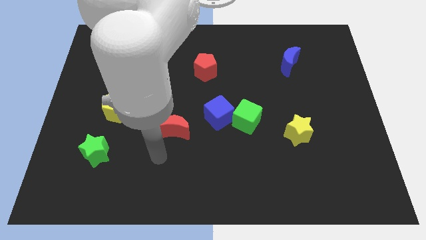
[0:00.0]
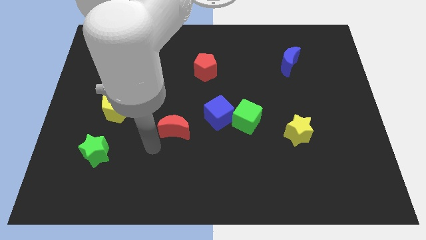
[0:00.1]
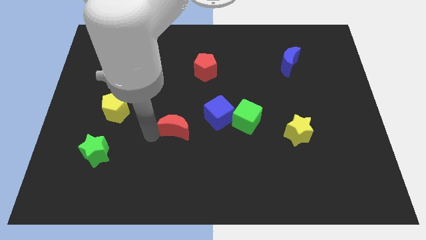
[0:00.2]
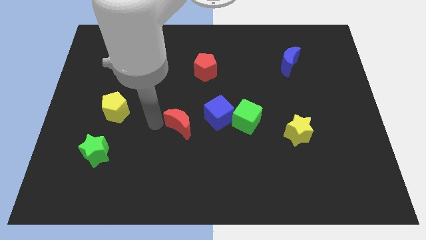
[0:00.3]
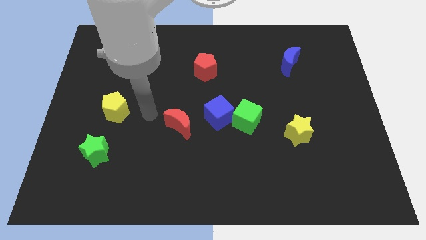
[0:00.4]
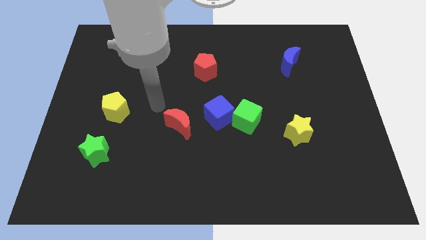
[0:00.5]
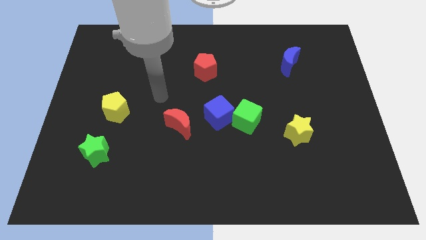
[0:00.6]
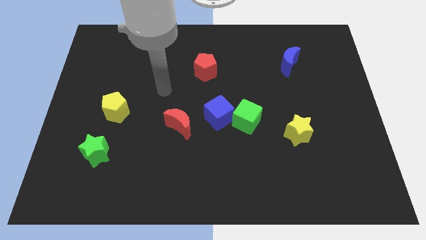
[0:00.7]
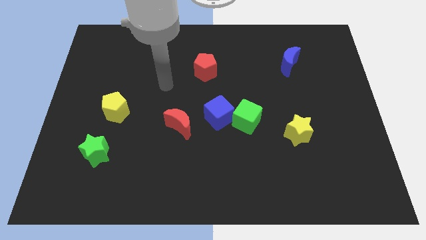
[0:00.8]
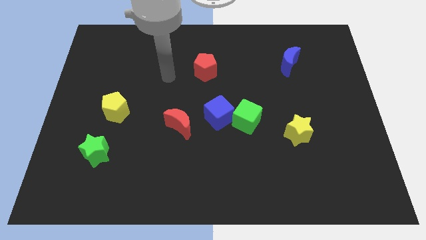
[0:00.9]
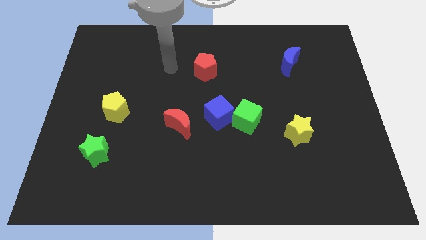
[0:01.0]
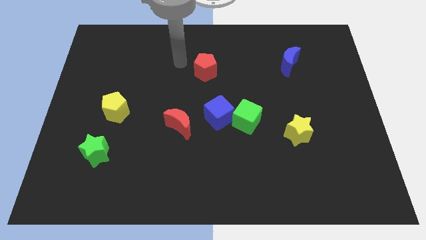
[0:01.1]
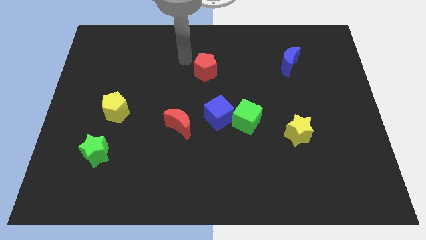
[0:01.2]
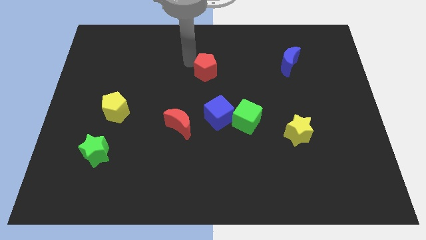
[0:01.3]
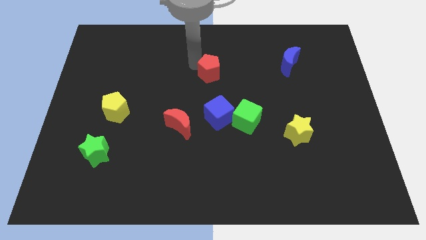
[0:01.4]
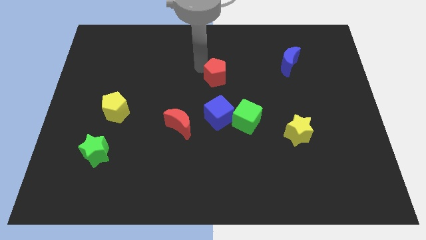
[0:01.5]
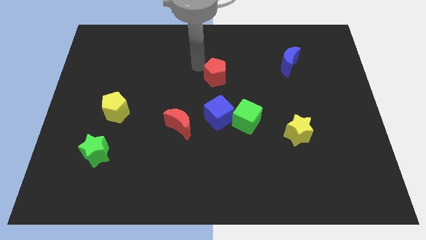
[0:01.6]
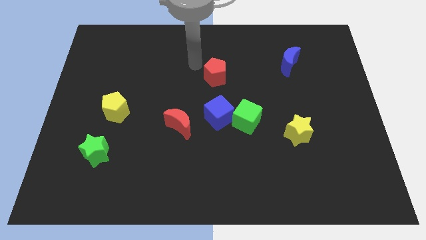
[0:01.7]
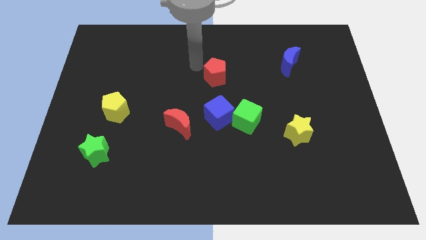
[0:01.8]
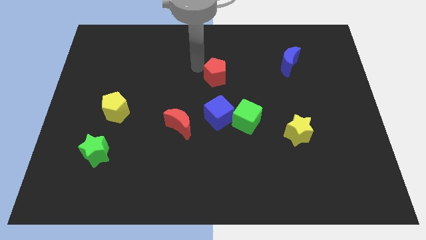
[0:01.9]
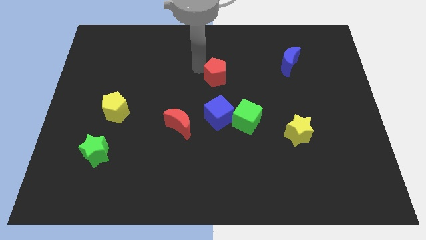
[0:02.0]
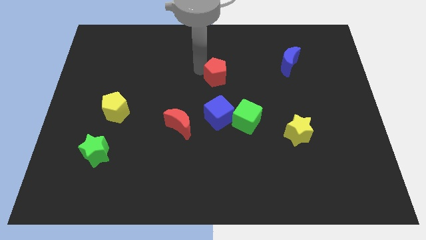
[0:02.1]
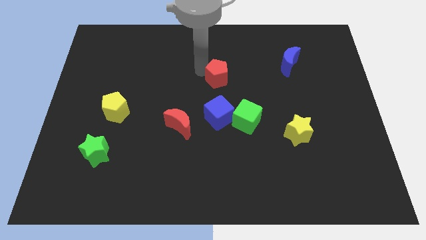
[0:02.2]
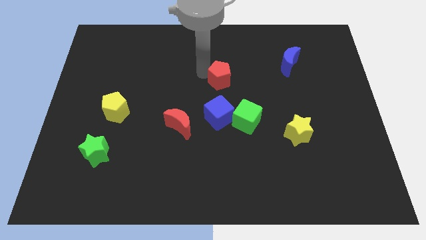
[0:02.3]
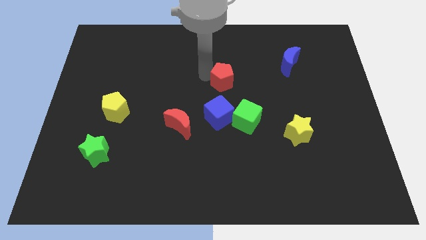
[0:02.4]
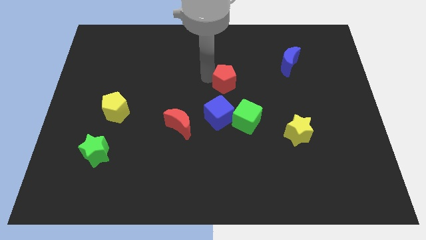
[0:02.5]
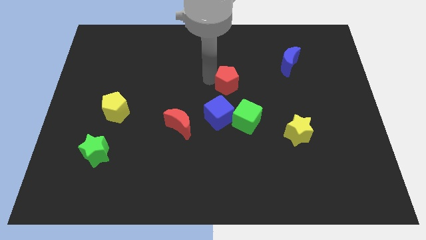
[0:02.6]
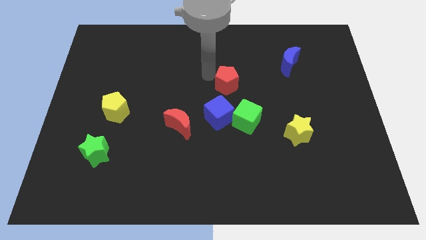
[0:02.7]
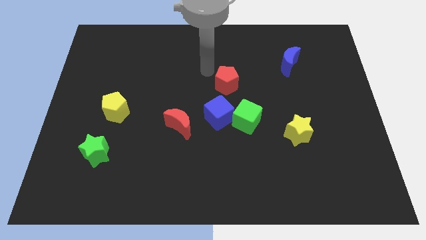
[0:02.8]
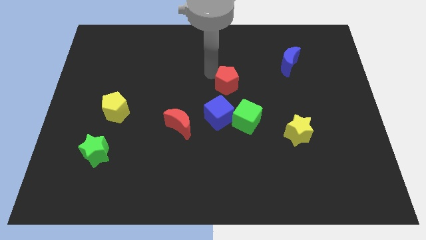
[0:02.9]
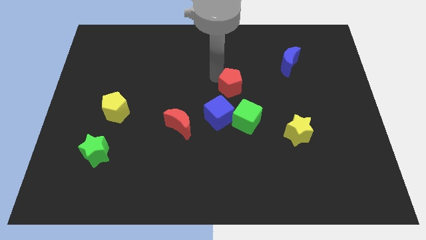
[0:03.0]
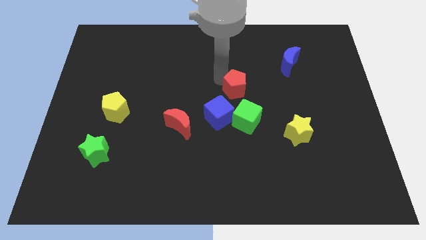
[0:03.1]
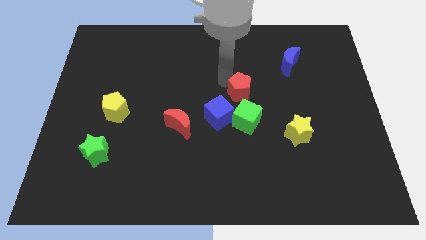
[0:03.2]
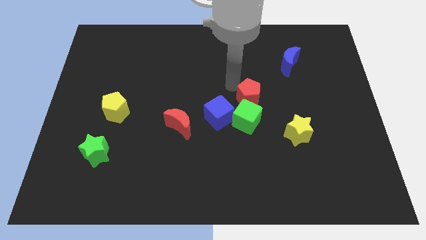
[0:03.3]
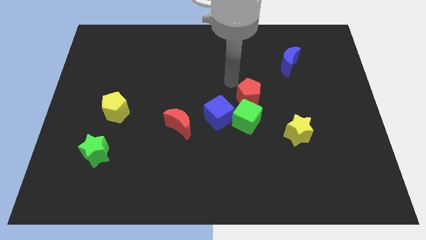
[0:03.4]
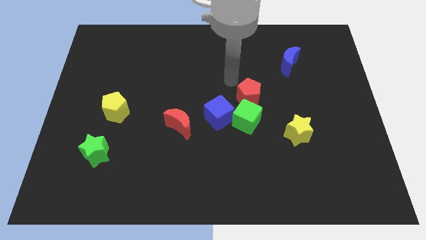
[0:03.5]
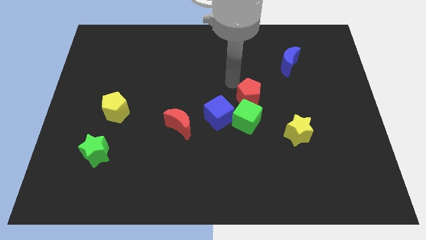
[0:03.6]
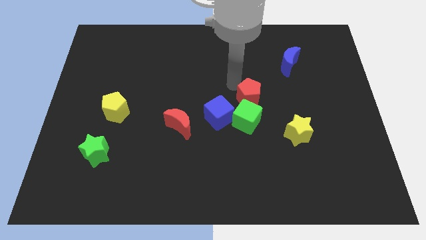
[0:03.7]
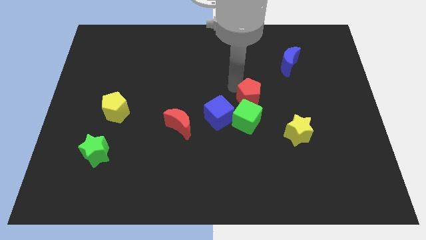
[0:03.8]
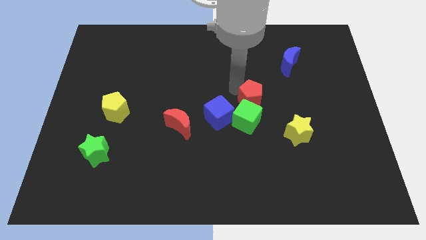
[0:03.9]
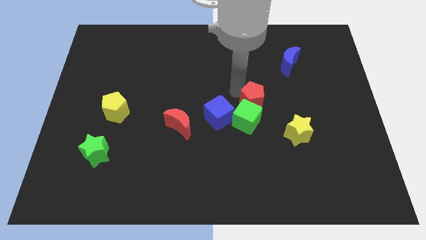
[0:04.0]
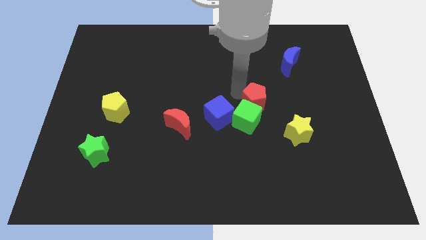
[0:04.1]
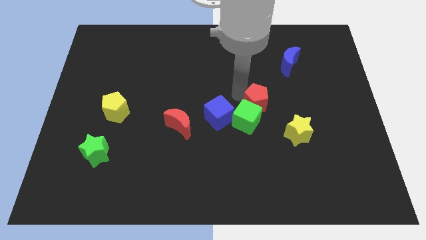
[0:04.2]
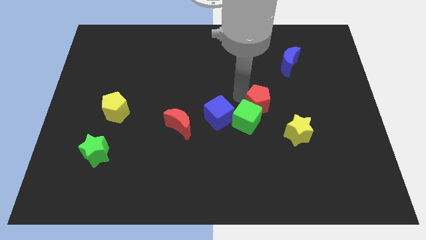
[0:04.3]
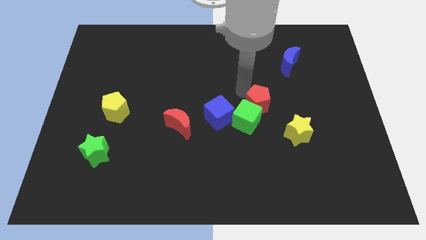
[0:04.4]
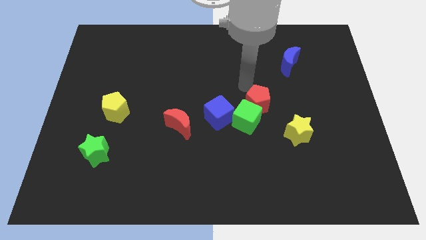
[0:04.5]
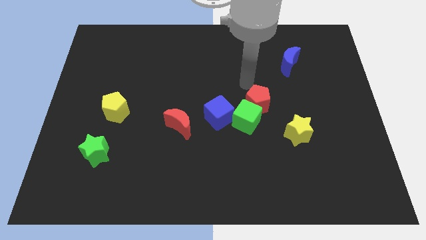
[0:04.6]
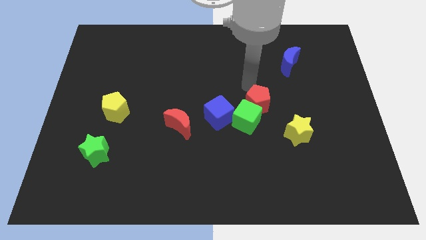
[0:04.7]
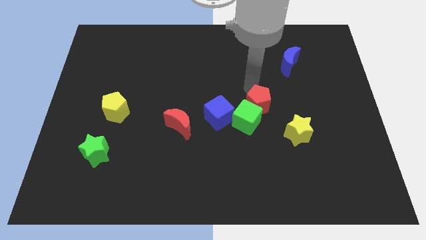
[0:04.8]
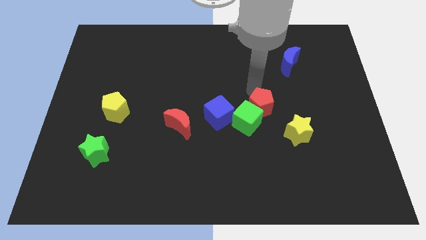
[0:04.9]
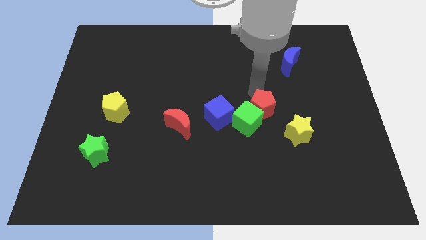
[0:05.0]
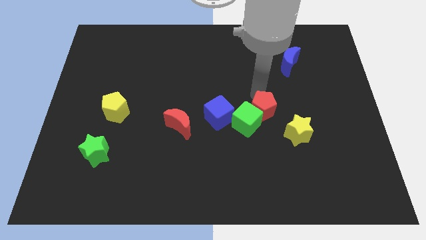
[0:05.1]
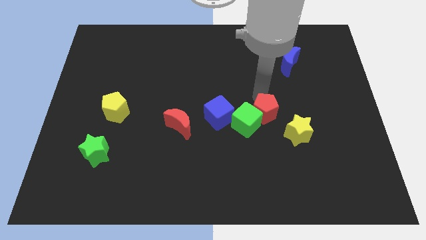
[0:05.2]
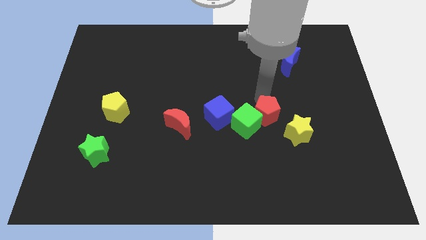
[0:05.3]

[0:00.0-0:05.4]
push the red pentagon diagonally downwards and to the right

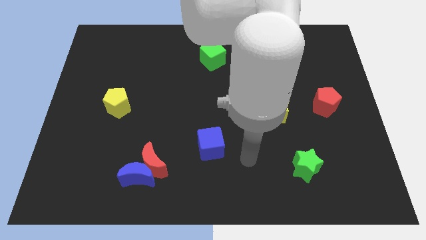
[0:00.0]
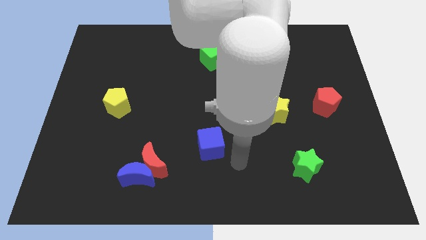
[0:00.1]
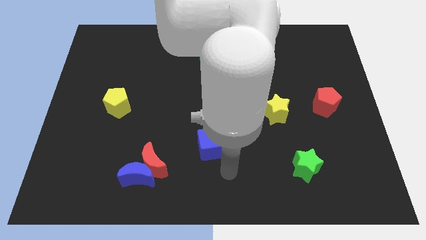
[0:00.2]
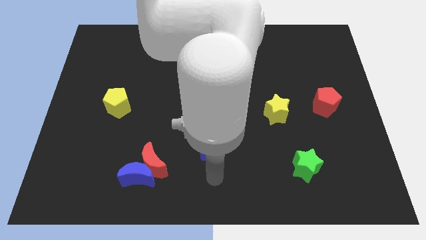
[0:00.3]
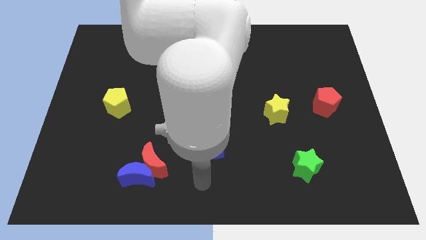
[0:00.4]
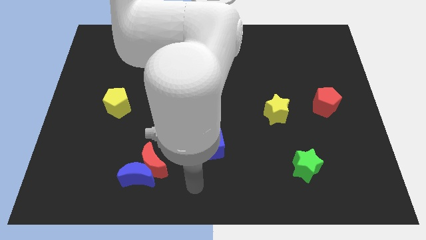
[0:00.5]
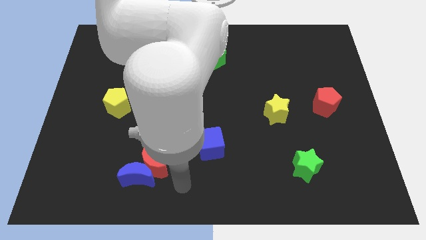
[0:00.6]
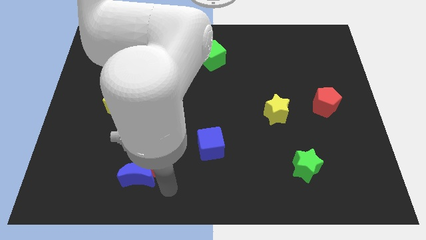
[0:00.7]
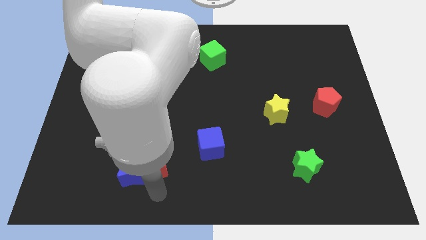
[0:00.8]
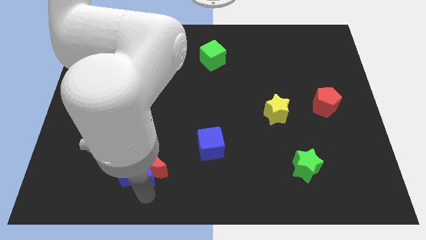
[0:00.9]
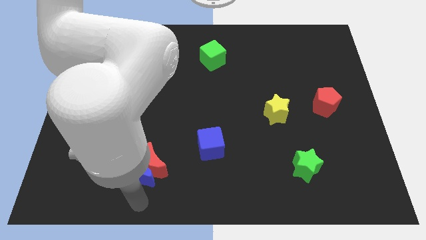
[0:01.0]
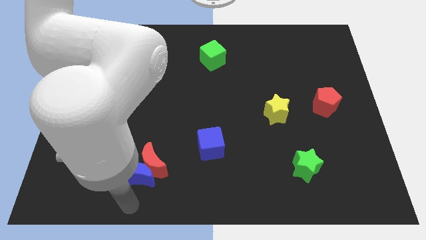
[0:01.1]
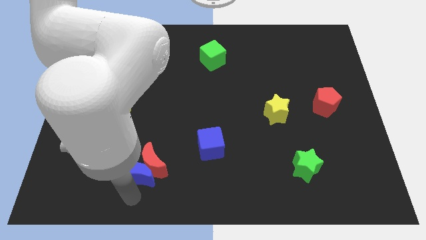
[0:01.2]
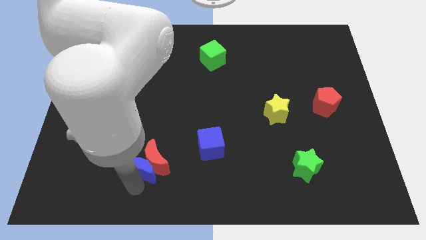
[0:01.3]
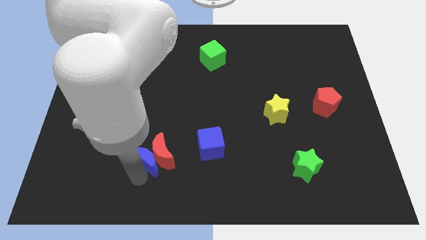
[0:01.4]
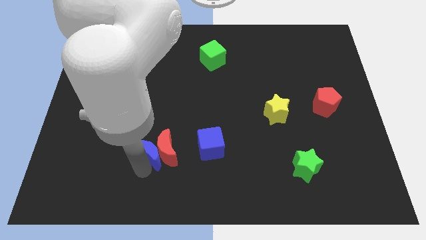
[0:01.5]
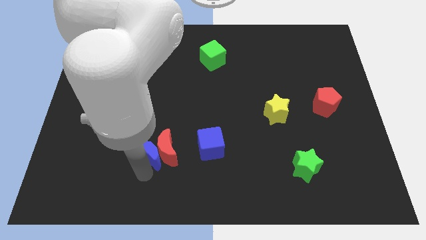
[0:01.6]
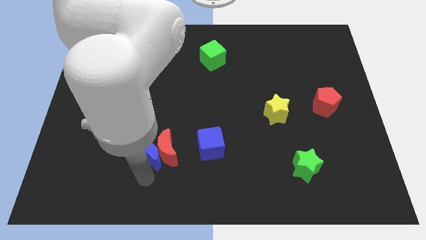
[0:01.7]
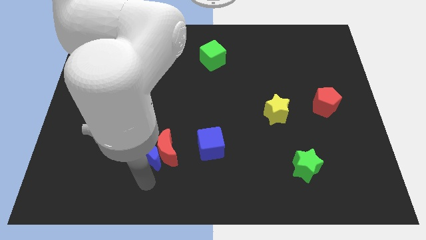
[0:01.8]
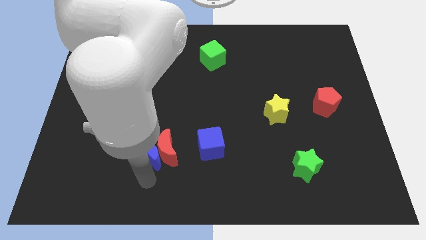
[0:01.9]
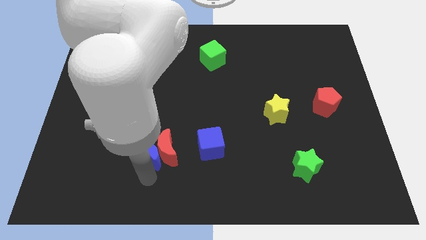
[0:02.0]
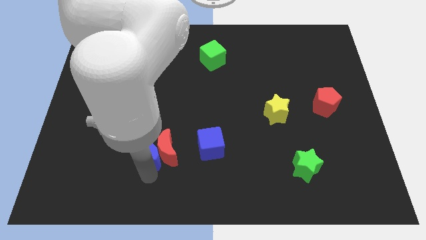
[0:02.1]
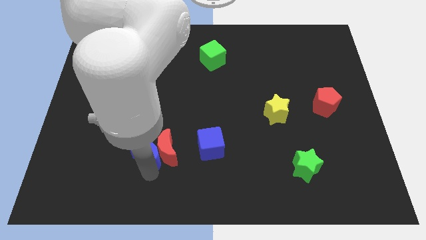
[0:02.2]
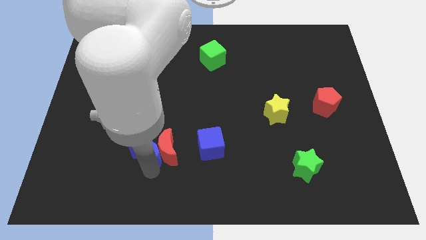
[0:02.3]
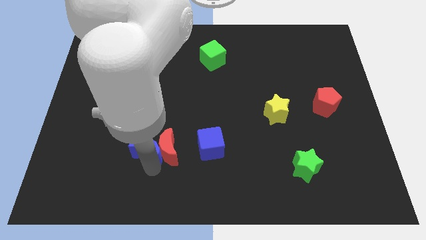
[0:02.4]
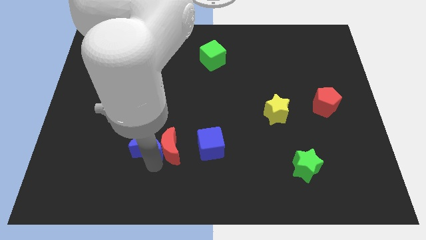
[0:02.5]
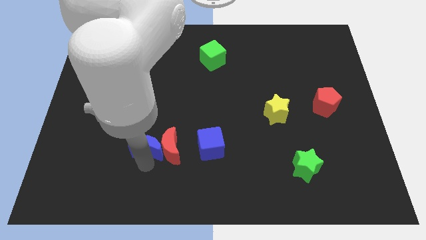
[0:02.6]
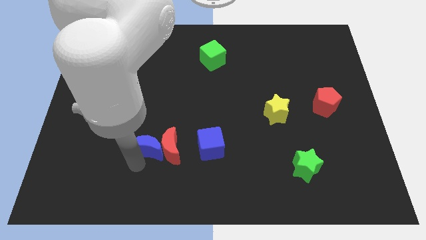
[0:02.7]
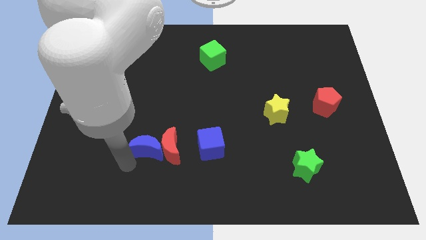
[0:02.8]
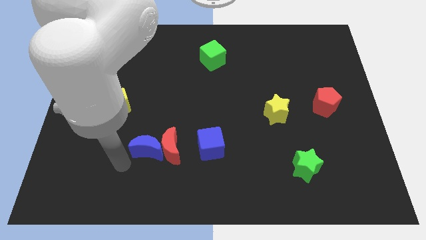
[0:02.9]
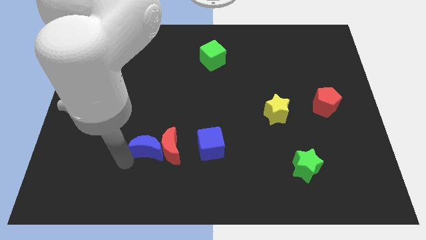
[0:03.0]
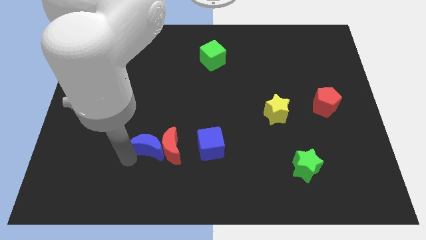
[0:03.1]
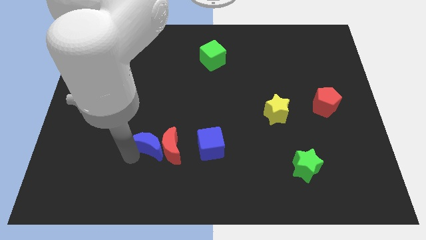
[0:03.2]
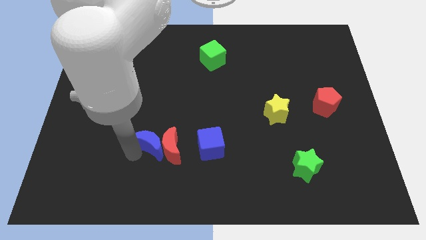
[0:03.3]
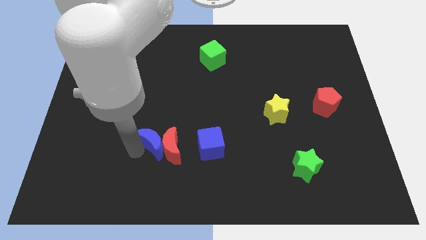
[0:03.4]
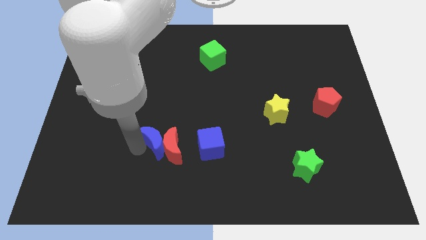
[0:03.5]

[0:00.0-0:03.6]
slide the blue moon up and right diagonally a little
